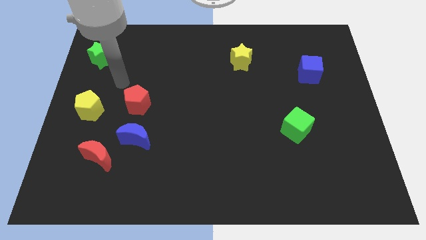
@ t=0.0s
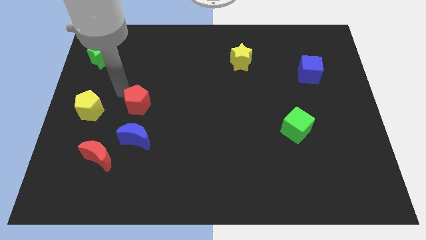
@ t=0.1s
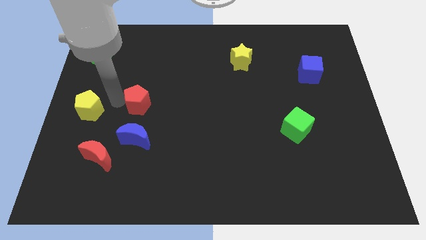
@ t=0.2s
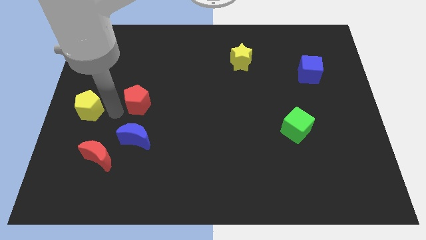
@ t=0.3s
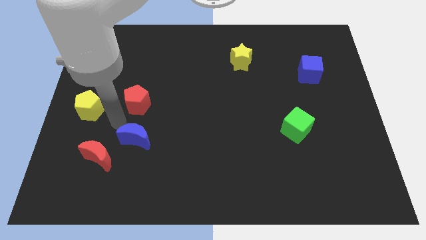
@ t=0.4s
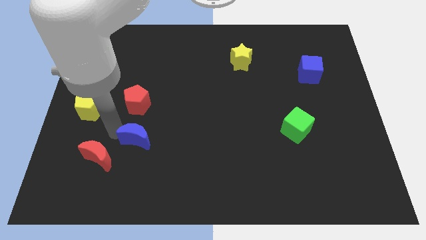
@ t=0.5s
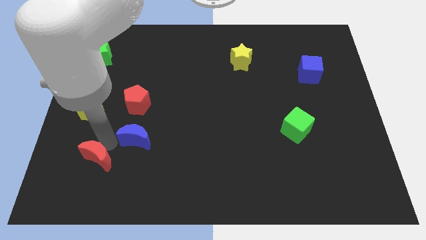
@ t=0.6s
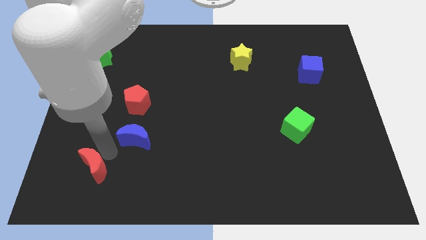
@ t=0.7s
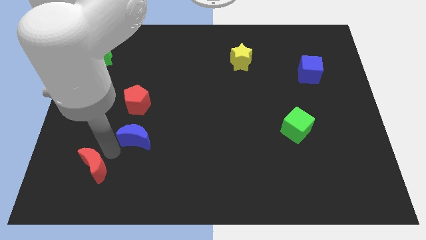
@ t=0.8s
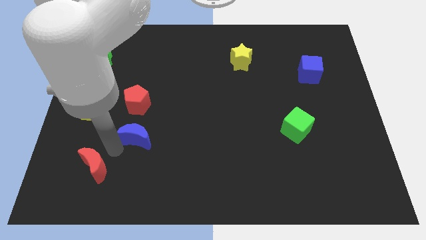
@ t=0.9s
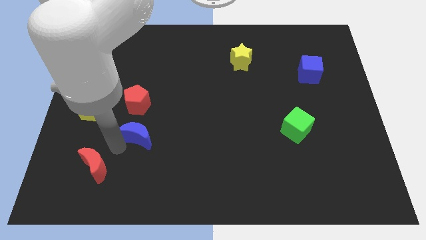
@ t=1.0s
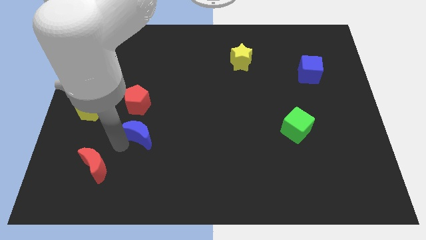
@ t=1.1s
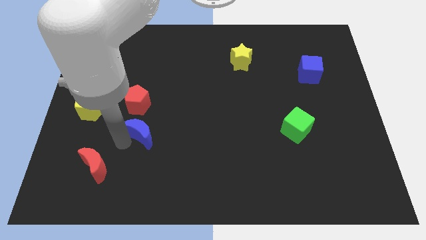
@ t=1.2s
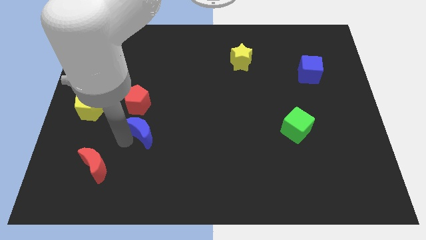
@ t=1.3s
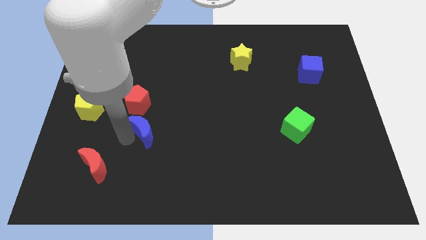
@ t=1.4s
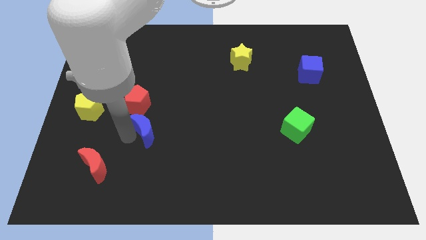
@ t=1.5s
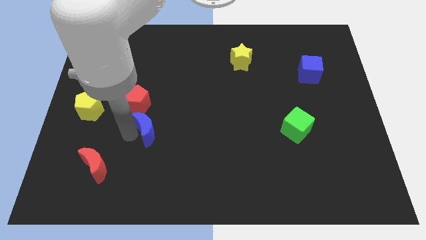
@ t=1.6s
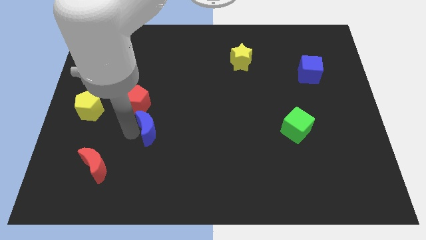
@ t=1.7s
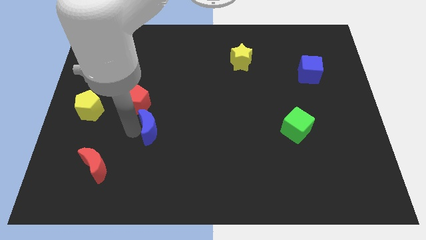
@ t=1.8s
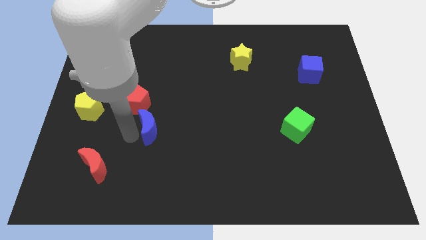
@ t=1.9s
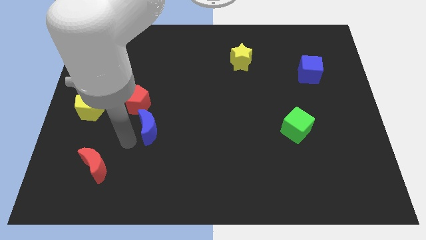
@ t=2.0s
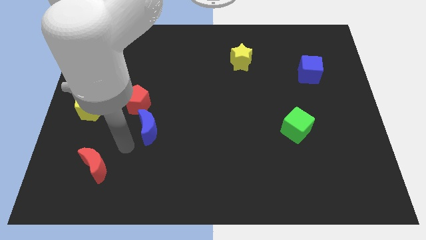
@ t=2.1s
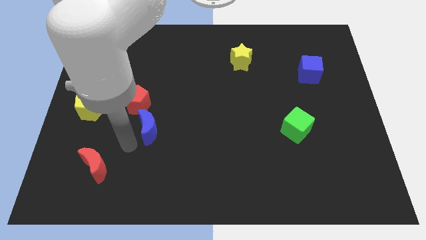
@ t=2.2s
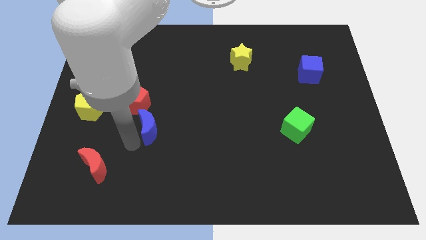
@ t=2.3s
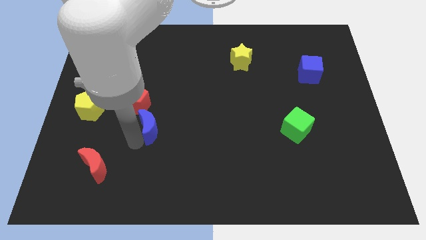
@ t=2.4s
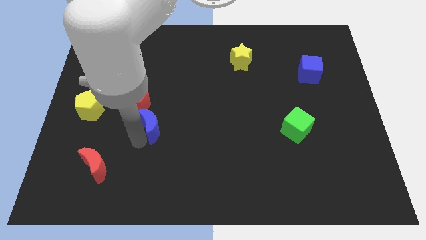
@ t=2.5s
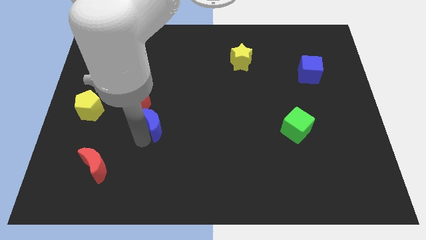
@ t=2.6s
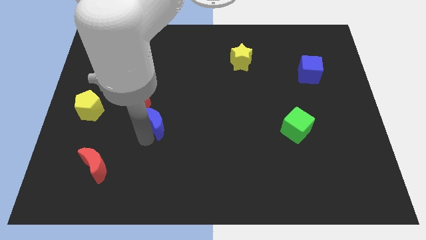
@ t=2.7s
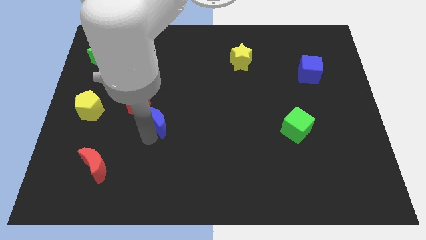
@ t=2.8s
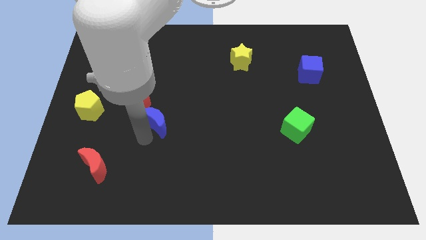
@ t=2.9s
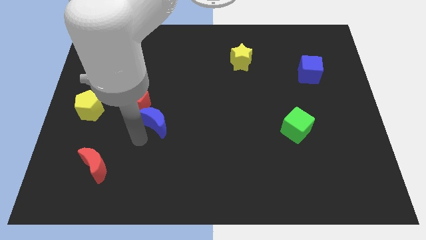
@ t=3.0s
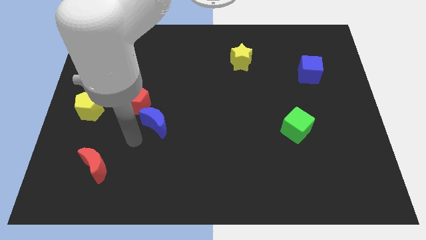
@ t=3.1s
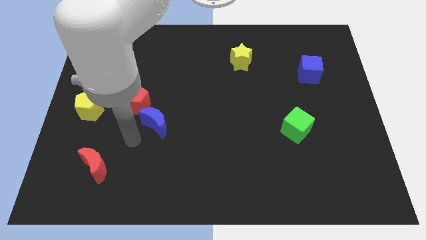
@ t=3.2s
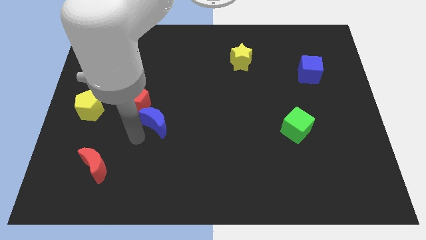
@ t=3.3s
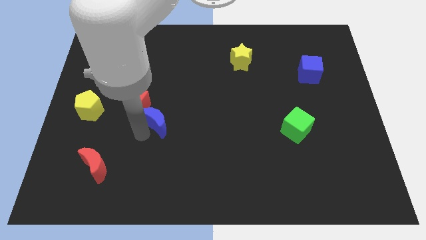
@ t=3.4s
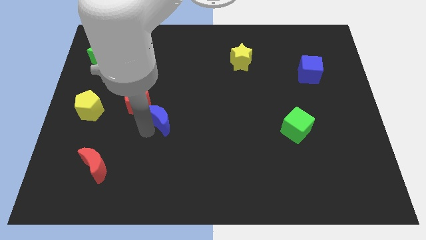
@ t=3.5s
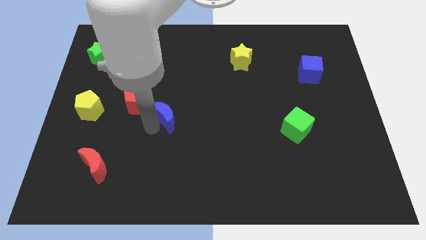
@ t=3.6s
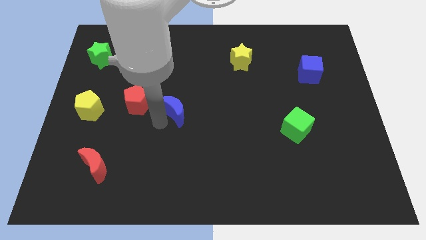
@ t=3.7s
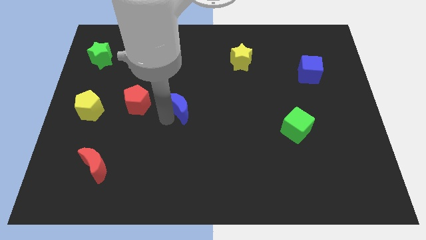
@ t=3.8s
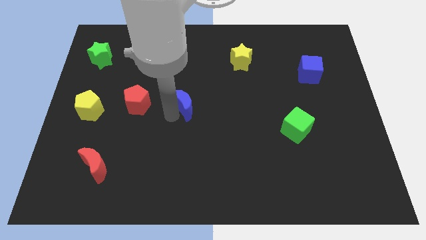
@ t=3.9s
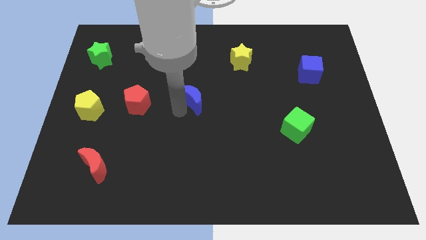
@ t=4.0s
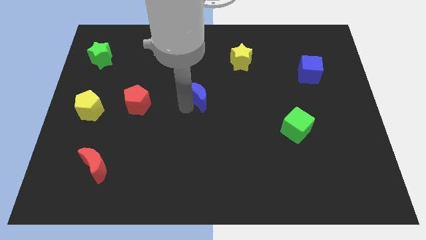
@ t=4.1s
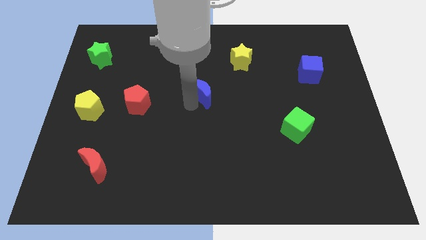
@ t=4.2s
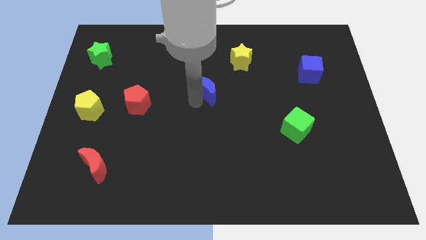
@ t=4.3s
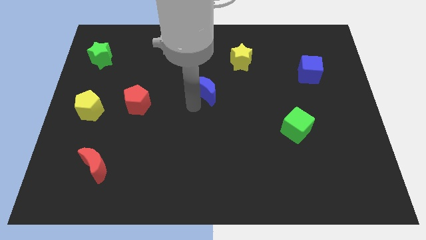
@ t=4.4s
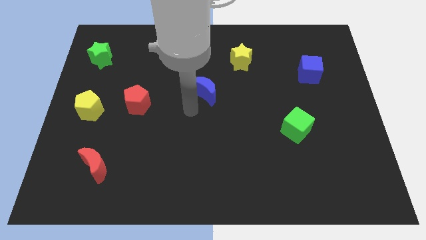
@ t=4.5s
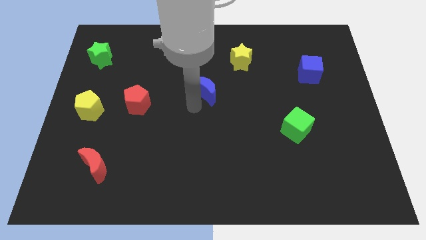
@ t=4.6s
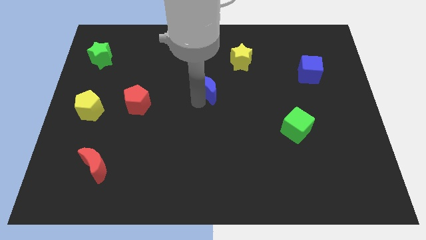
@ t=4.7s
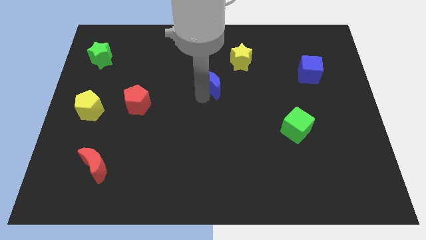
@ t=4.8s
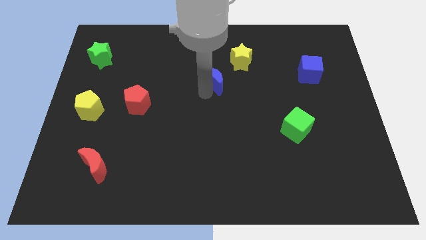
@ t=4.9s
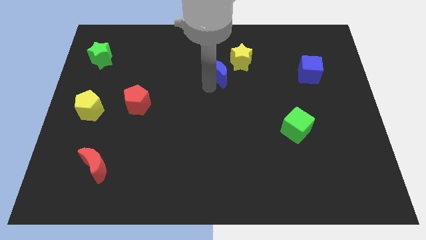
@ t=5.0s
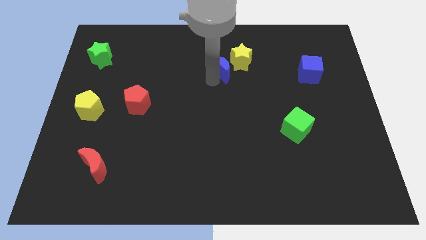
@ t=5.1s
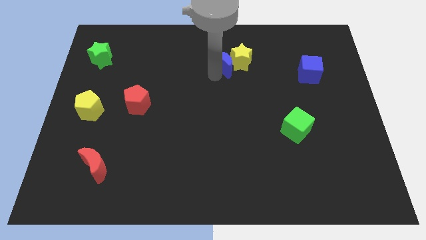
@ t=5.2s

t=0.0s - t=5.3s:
put the blue moon close to the yellow star

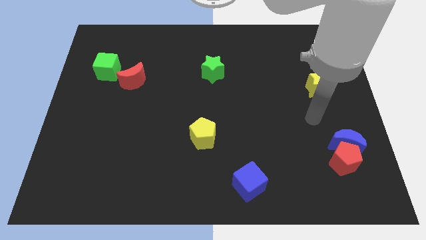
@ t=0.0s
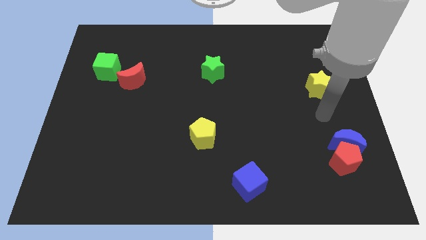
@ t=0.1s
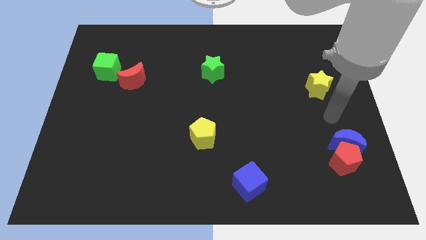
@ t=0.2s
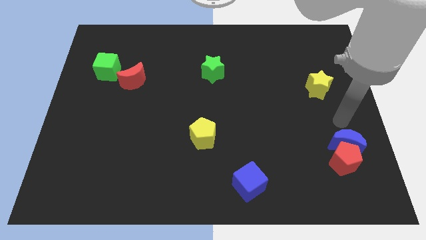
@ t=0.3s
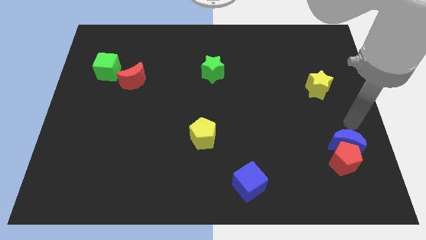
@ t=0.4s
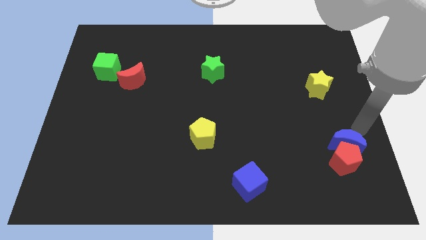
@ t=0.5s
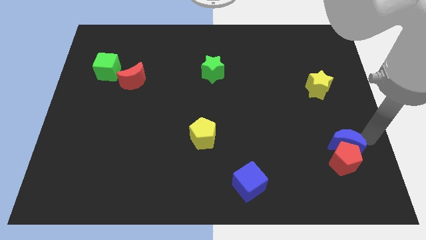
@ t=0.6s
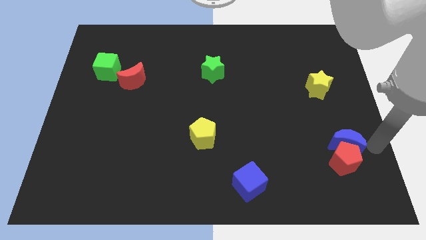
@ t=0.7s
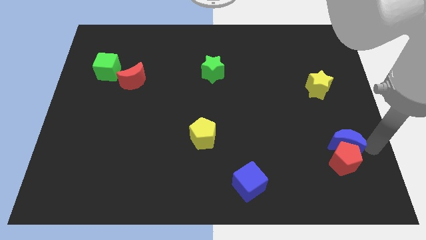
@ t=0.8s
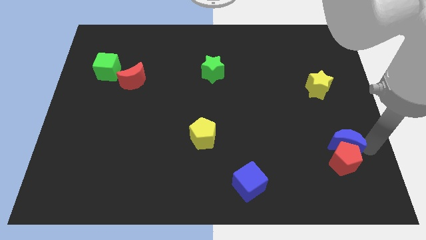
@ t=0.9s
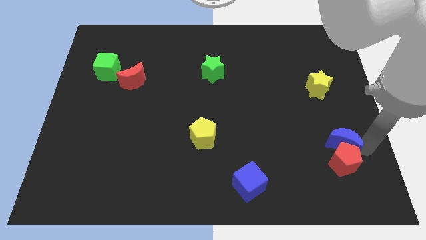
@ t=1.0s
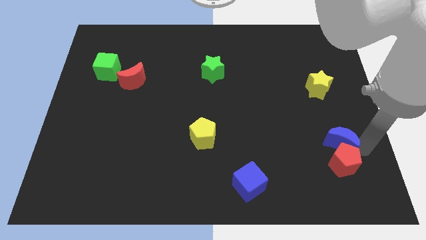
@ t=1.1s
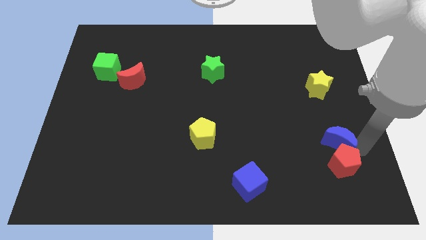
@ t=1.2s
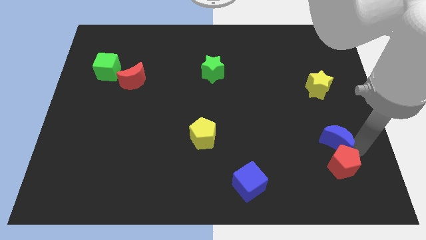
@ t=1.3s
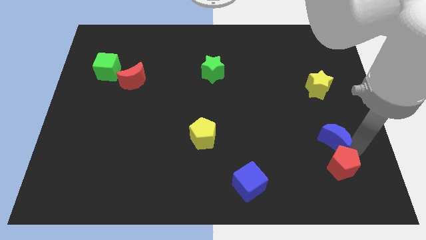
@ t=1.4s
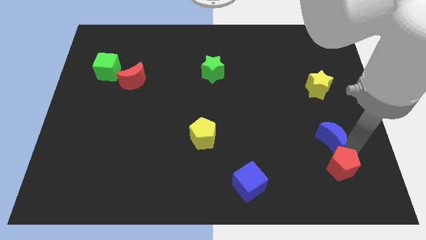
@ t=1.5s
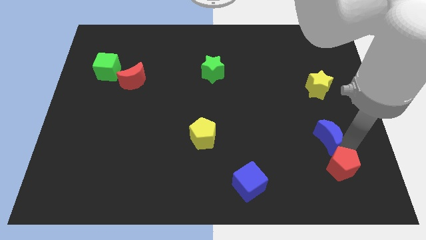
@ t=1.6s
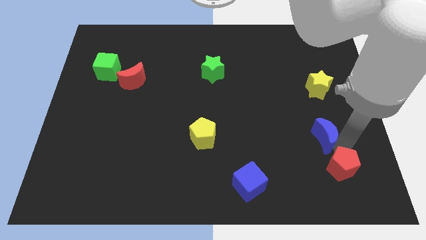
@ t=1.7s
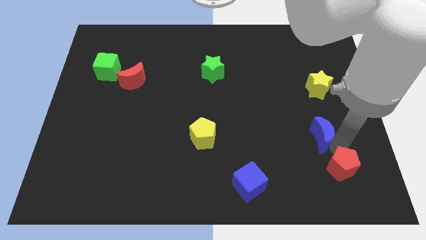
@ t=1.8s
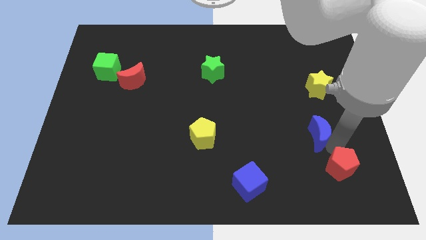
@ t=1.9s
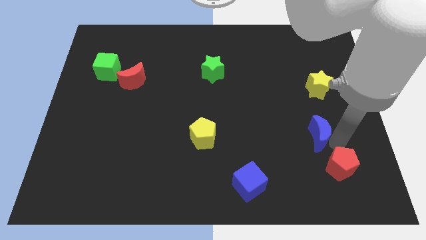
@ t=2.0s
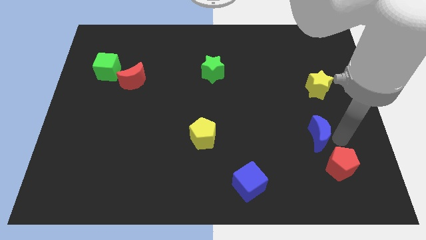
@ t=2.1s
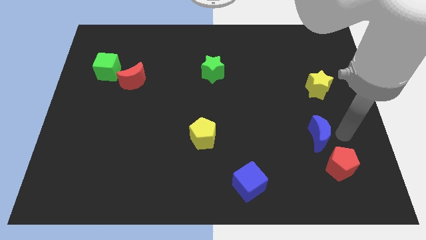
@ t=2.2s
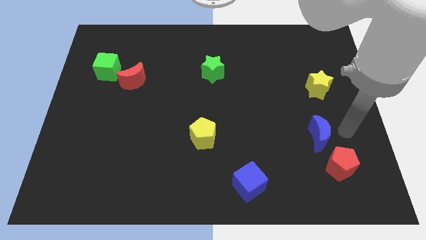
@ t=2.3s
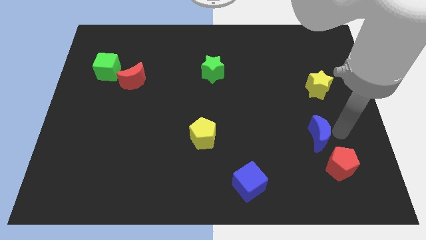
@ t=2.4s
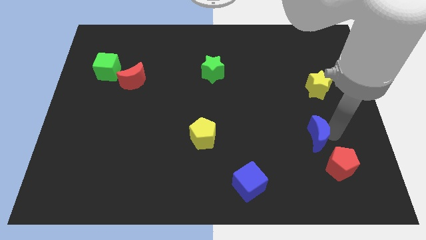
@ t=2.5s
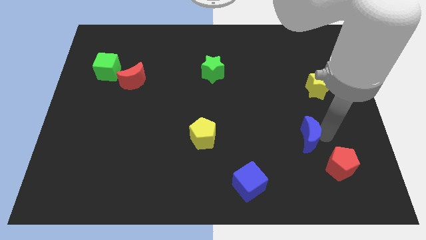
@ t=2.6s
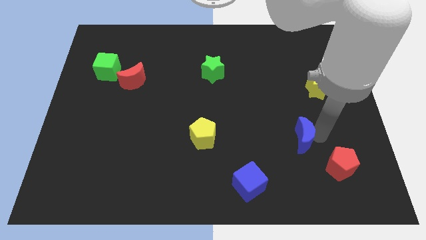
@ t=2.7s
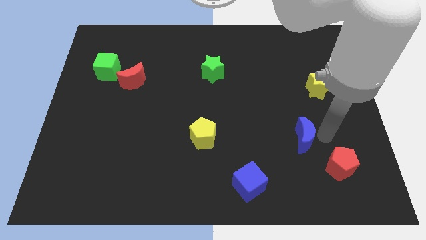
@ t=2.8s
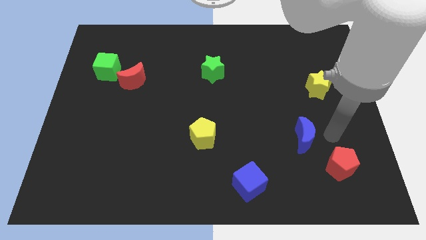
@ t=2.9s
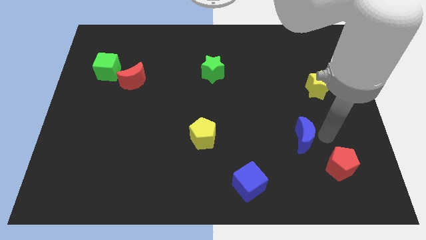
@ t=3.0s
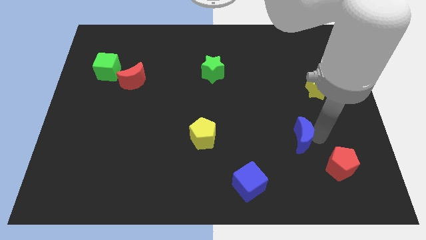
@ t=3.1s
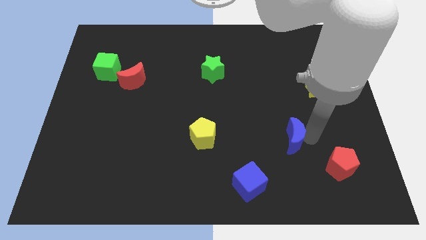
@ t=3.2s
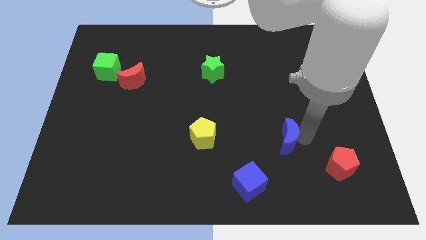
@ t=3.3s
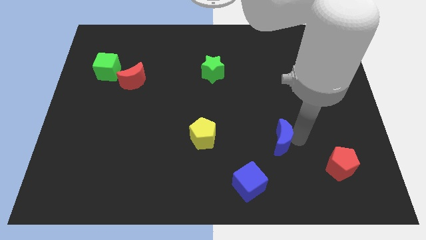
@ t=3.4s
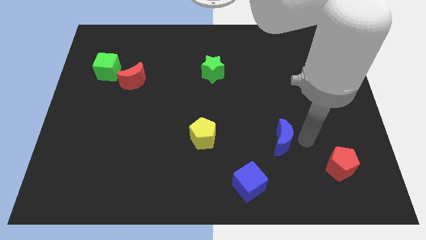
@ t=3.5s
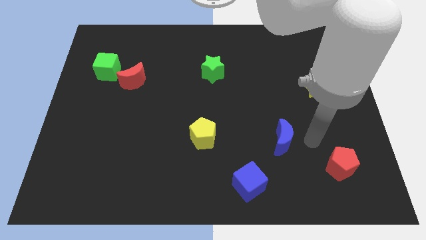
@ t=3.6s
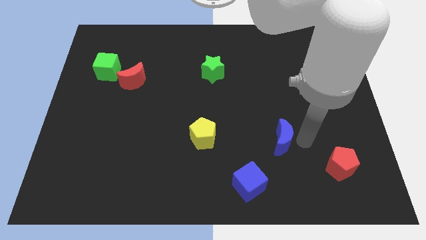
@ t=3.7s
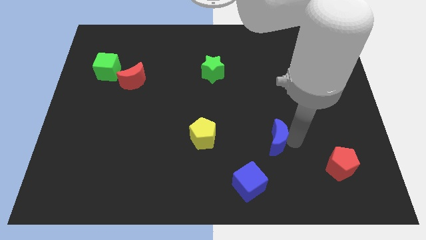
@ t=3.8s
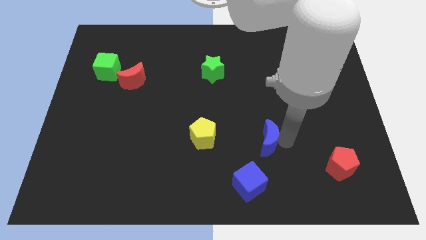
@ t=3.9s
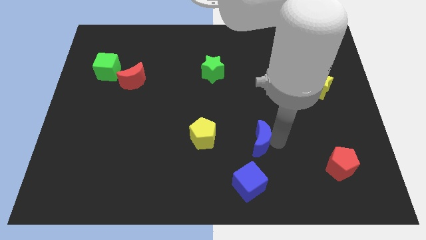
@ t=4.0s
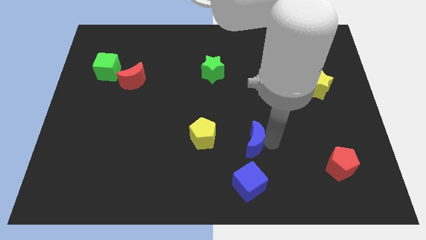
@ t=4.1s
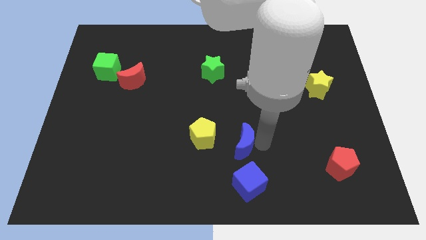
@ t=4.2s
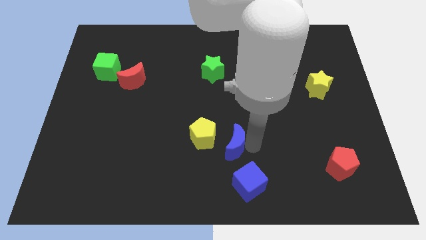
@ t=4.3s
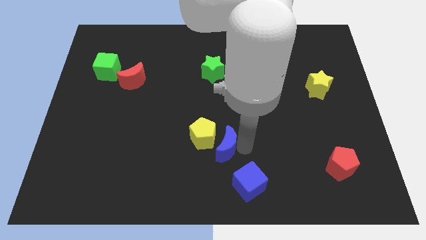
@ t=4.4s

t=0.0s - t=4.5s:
put the blue moon towards the yellow pentagon
